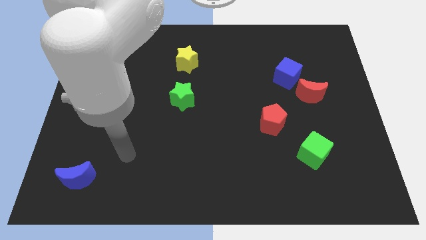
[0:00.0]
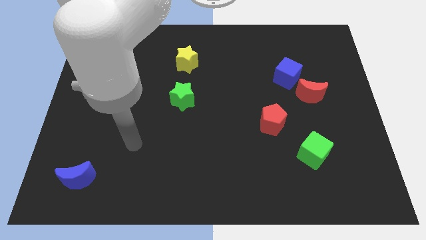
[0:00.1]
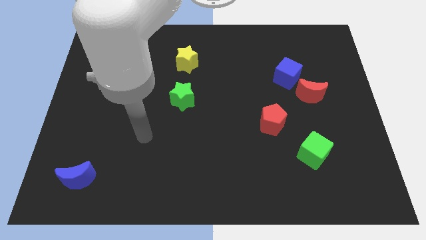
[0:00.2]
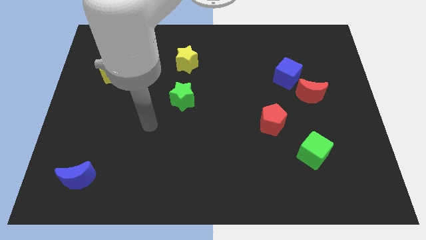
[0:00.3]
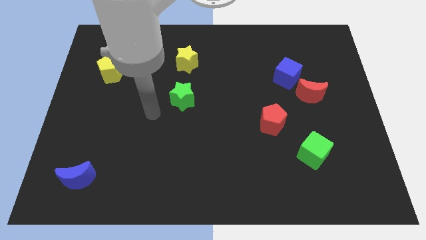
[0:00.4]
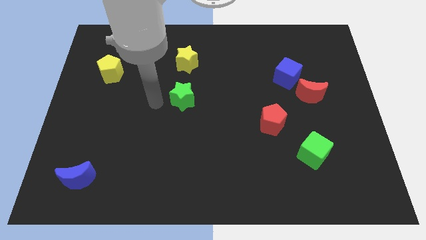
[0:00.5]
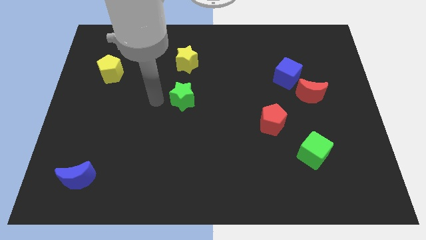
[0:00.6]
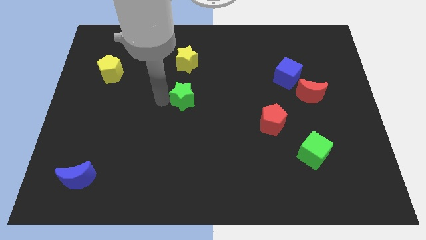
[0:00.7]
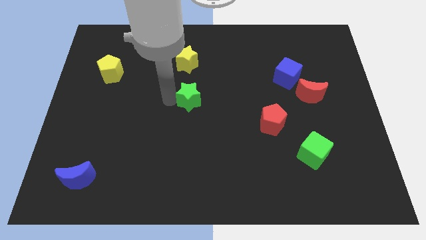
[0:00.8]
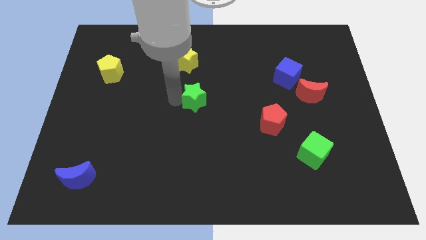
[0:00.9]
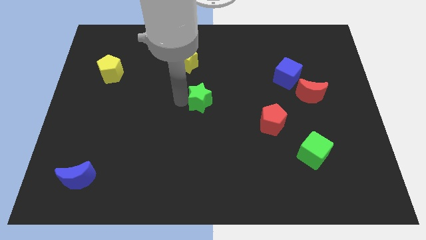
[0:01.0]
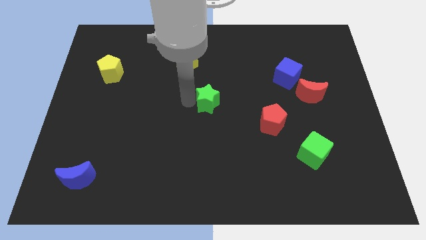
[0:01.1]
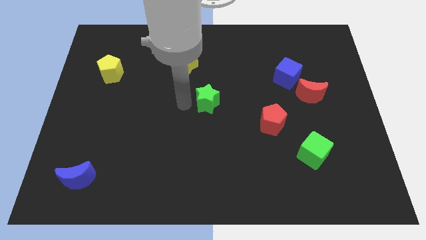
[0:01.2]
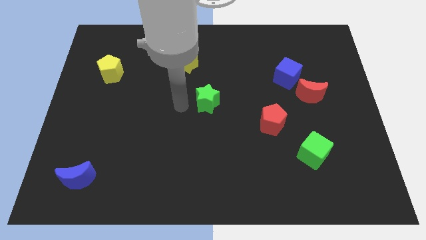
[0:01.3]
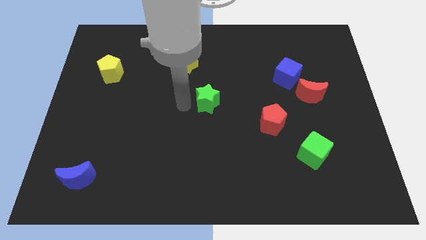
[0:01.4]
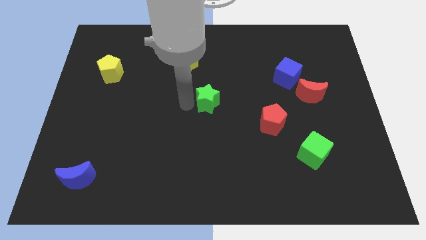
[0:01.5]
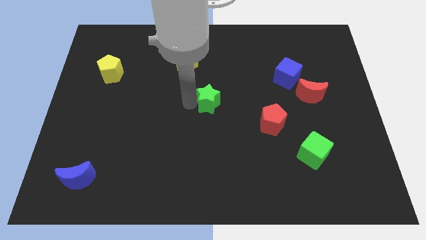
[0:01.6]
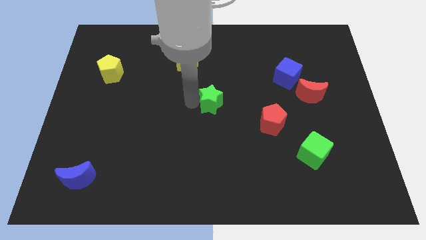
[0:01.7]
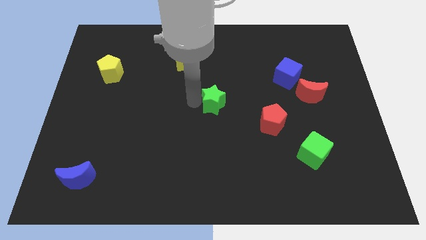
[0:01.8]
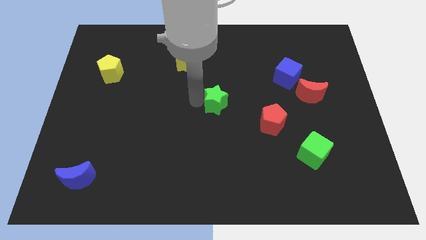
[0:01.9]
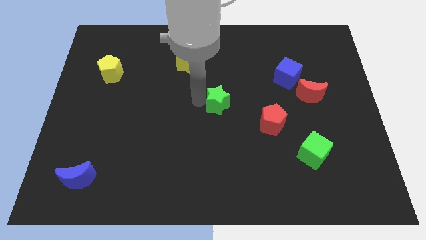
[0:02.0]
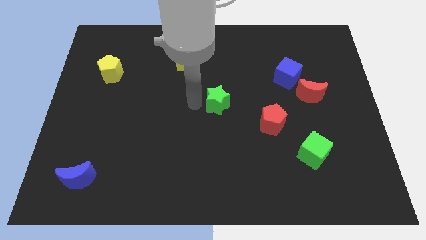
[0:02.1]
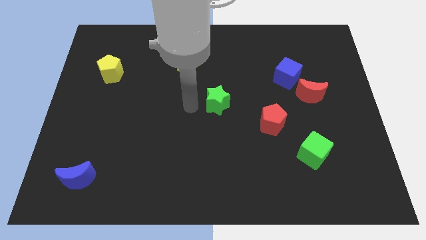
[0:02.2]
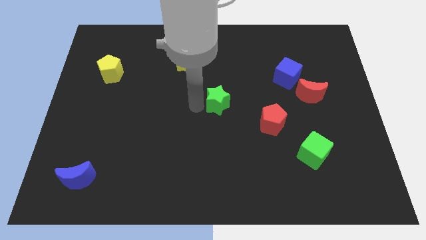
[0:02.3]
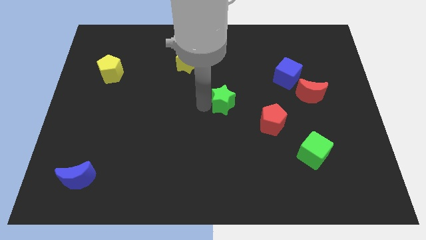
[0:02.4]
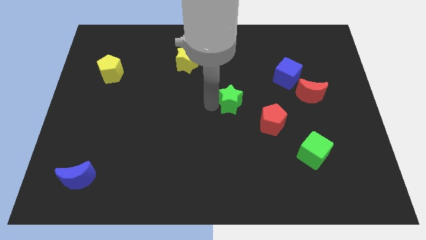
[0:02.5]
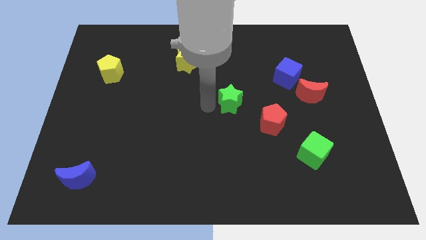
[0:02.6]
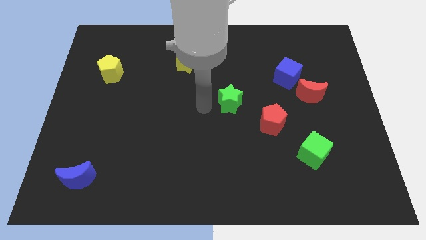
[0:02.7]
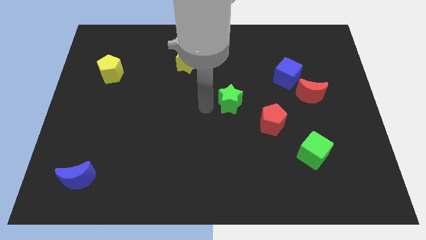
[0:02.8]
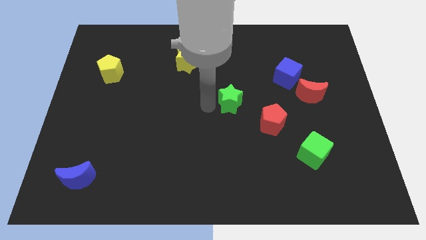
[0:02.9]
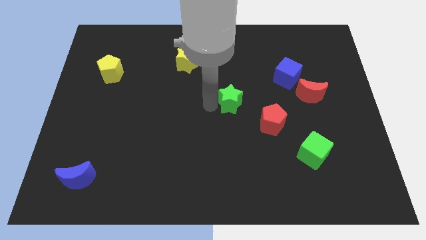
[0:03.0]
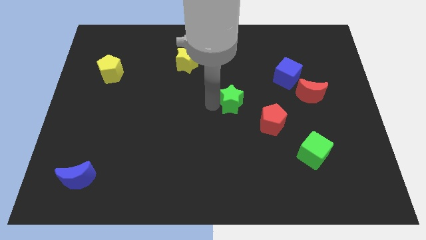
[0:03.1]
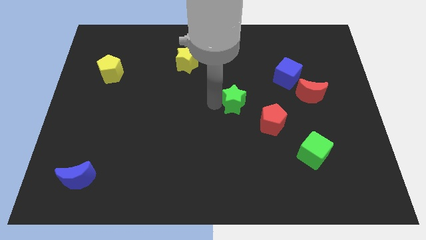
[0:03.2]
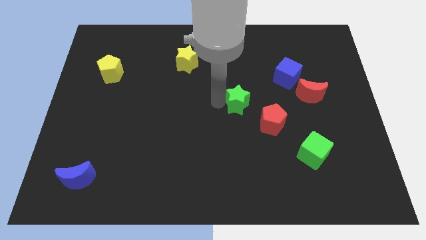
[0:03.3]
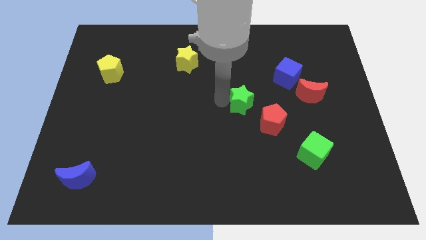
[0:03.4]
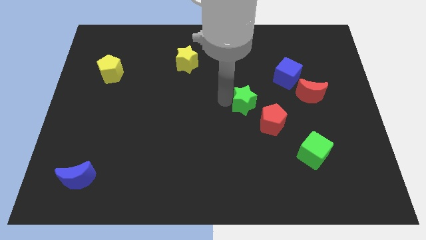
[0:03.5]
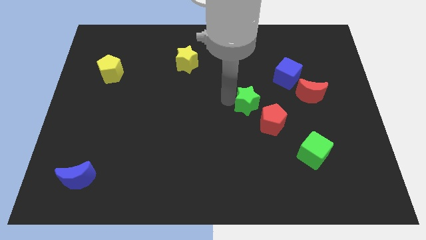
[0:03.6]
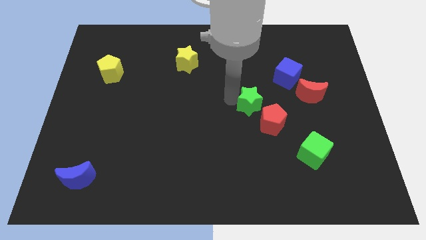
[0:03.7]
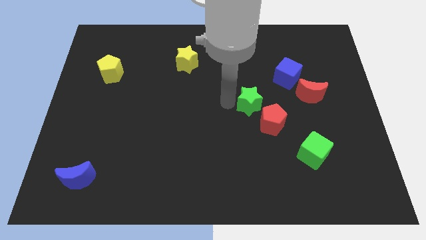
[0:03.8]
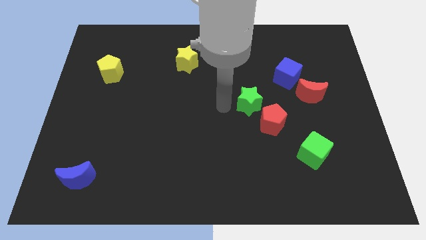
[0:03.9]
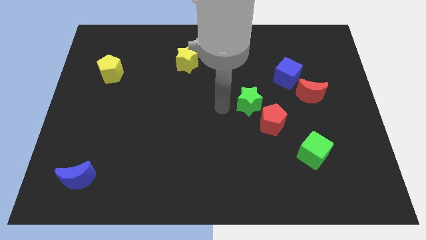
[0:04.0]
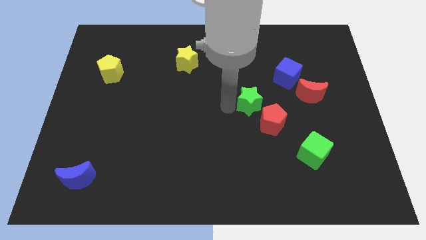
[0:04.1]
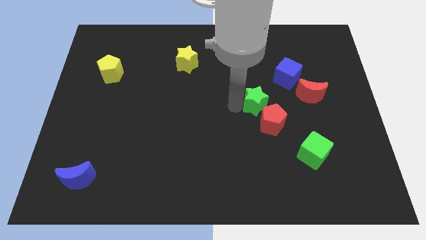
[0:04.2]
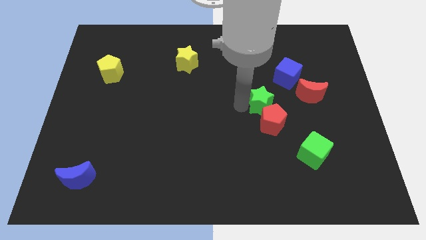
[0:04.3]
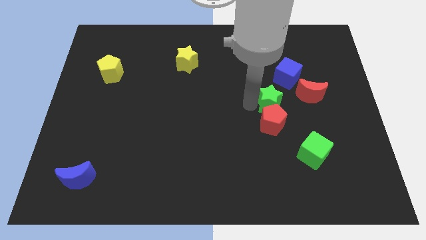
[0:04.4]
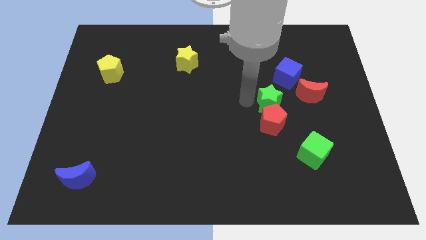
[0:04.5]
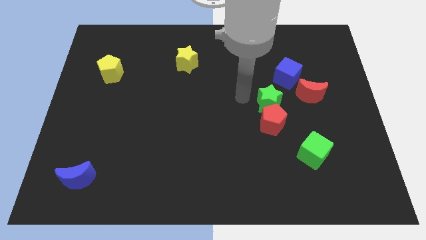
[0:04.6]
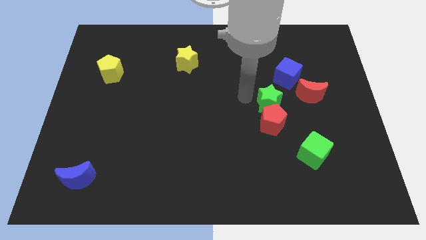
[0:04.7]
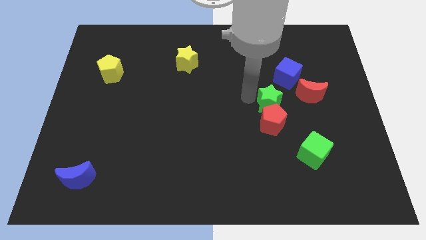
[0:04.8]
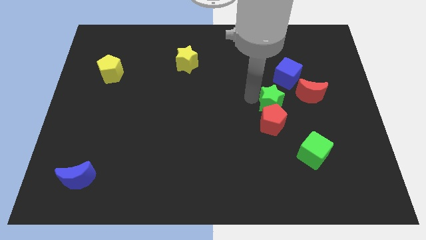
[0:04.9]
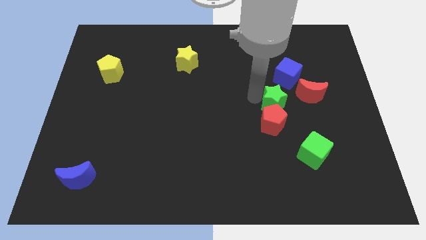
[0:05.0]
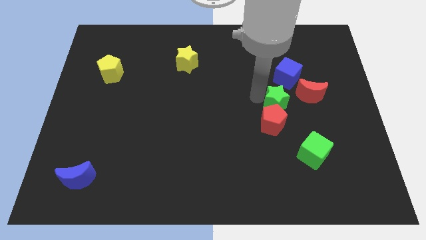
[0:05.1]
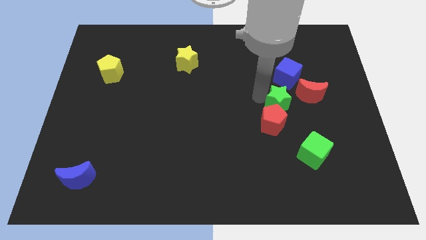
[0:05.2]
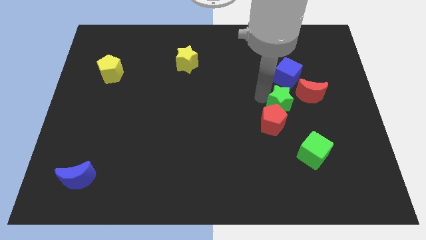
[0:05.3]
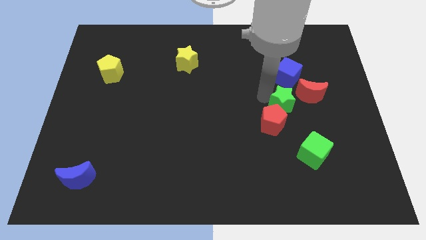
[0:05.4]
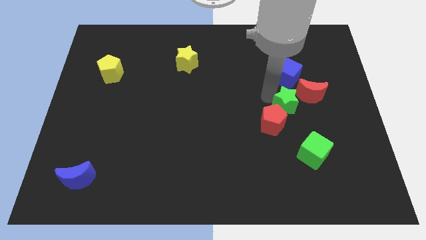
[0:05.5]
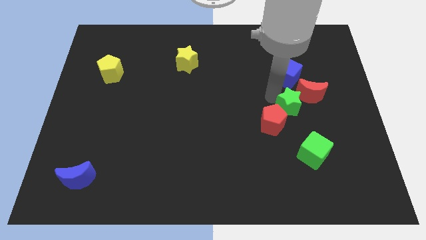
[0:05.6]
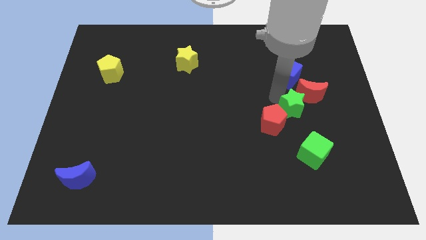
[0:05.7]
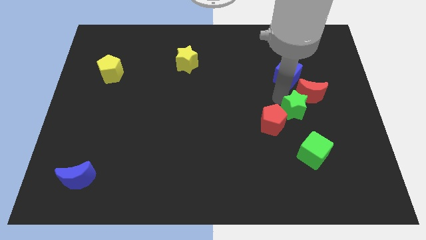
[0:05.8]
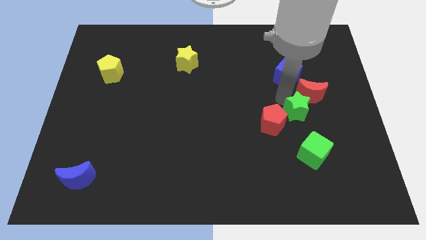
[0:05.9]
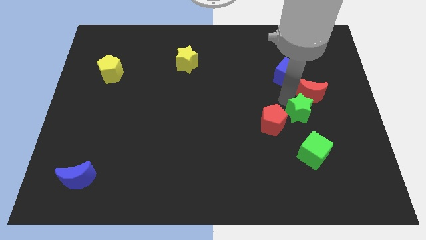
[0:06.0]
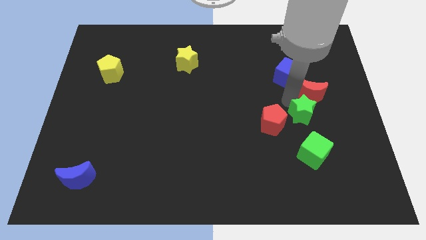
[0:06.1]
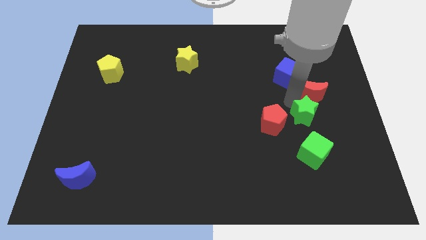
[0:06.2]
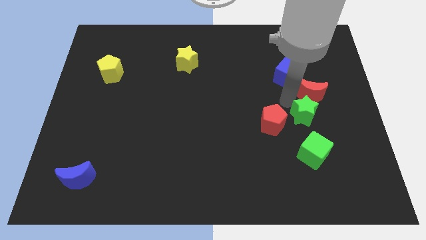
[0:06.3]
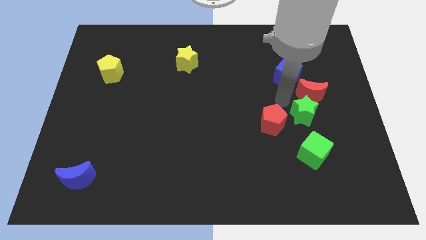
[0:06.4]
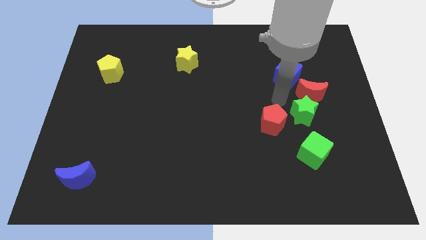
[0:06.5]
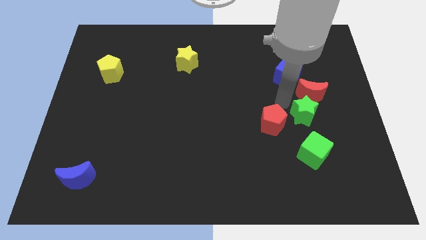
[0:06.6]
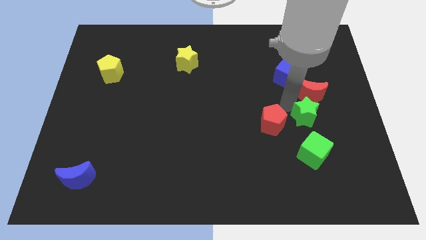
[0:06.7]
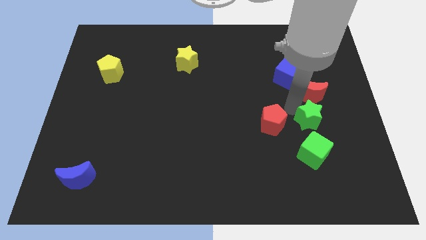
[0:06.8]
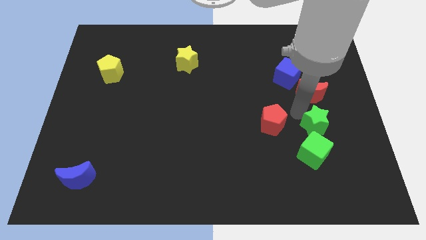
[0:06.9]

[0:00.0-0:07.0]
slide the green star to the top right of the green cube

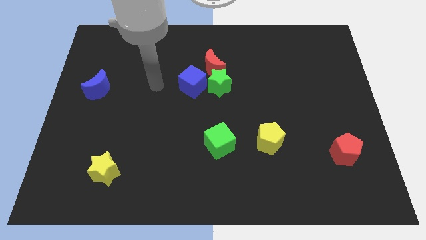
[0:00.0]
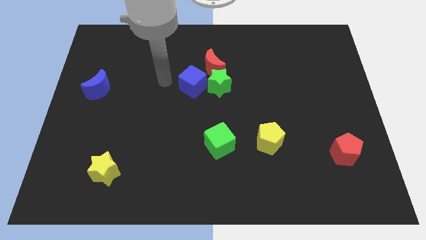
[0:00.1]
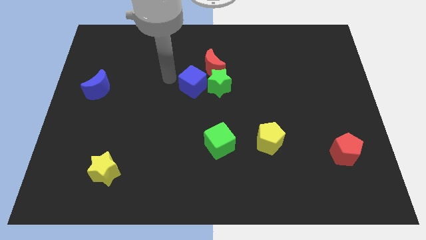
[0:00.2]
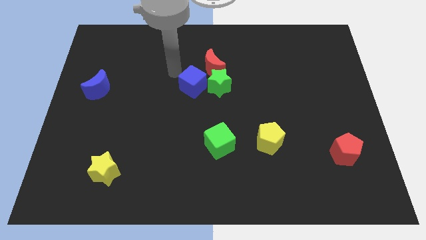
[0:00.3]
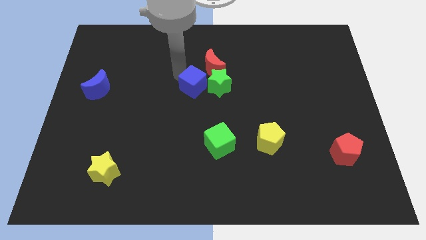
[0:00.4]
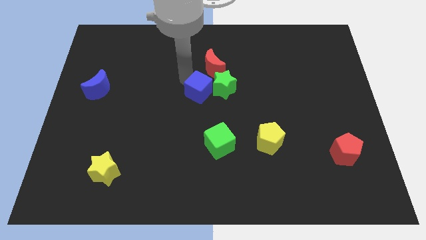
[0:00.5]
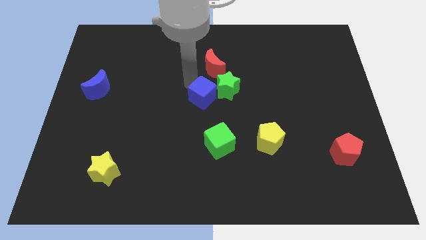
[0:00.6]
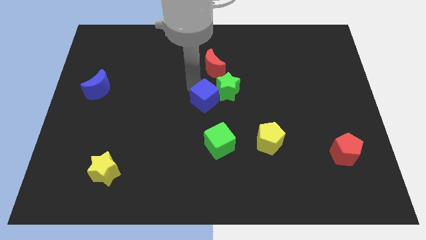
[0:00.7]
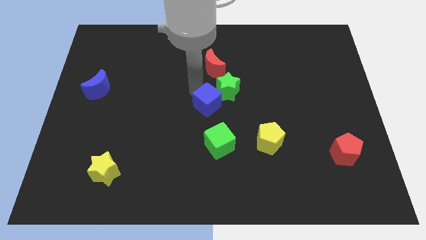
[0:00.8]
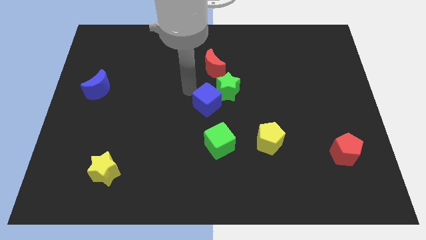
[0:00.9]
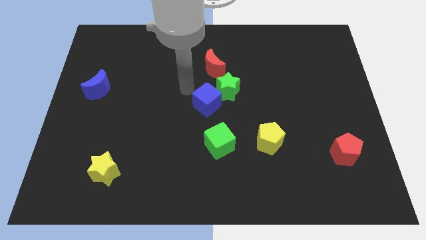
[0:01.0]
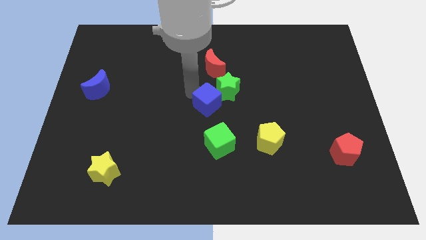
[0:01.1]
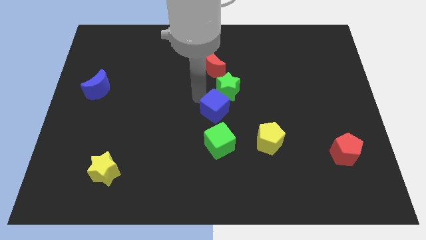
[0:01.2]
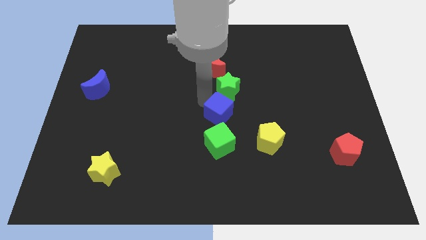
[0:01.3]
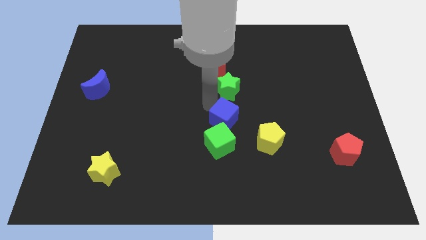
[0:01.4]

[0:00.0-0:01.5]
move the blue cube to the top right of the green cube
